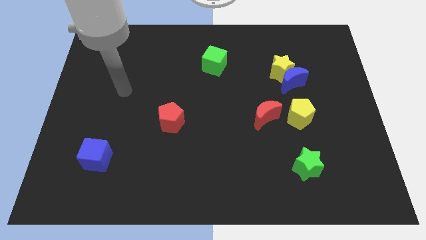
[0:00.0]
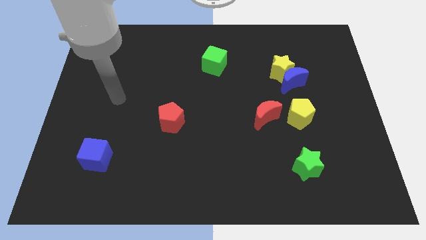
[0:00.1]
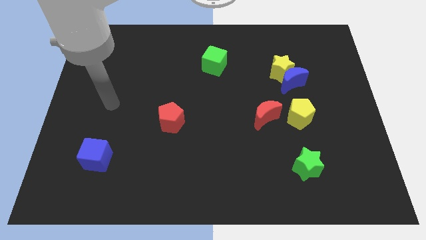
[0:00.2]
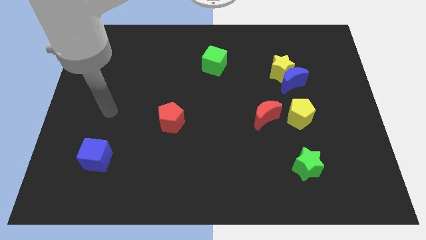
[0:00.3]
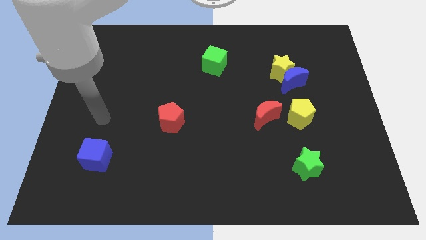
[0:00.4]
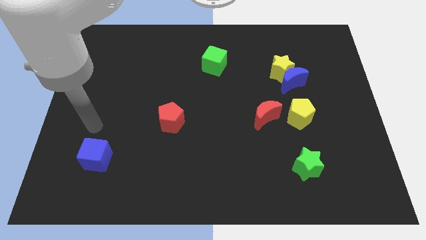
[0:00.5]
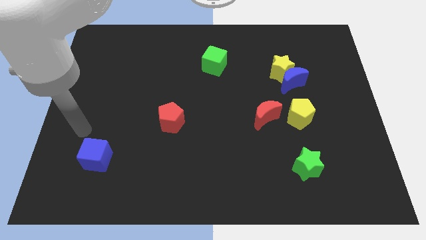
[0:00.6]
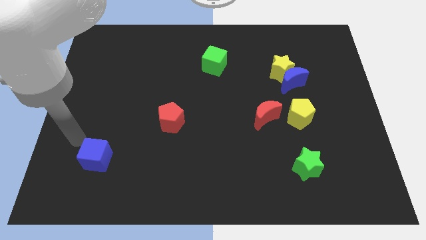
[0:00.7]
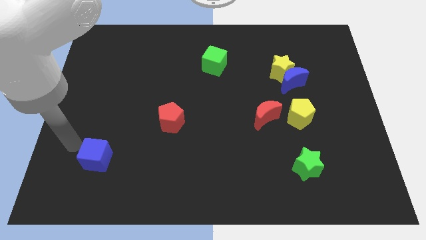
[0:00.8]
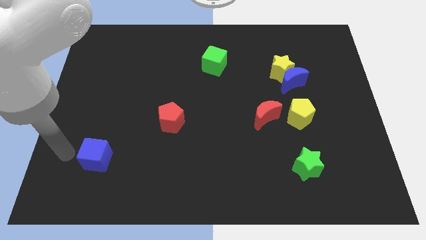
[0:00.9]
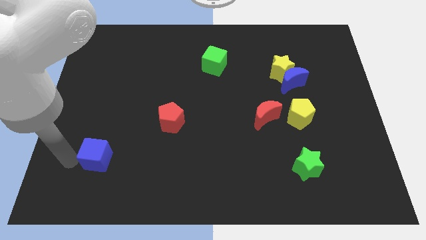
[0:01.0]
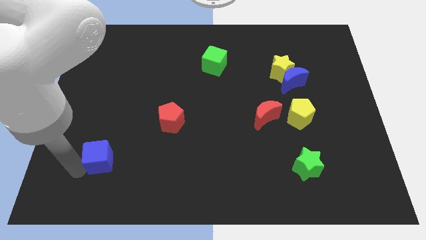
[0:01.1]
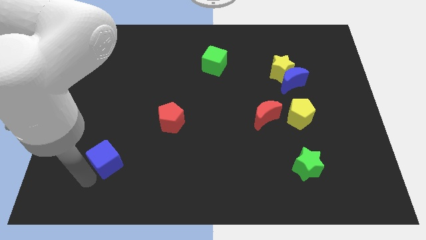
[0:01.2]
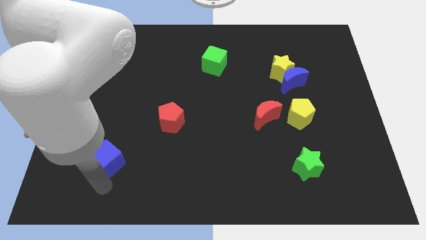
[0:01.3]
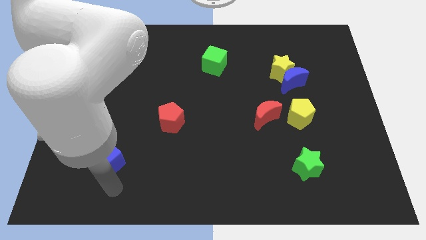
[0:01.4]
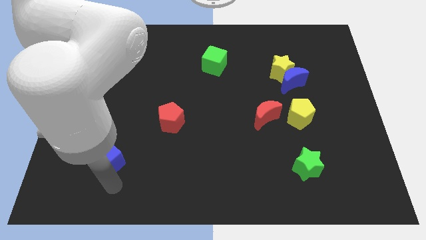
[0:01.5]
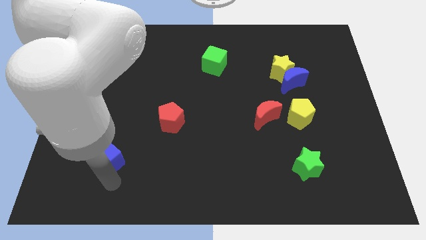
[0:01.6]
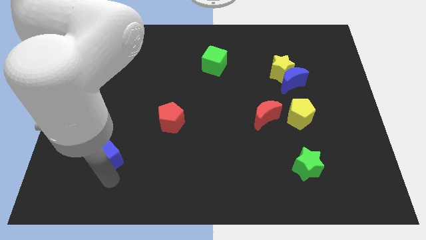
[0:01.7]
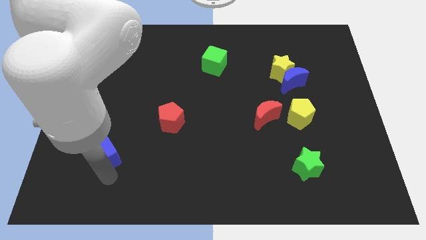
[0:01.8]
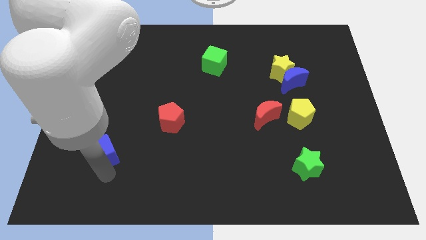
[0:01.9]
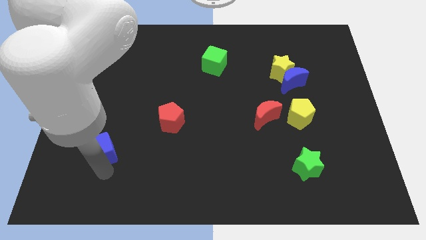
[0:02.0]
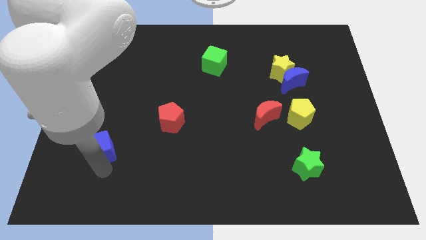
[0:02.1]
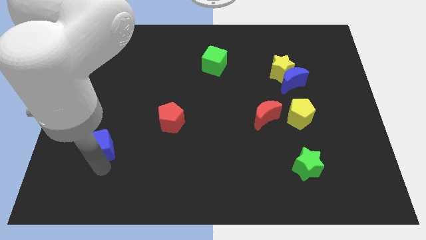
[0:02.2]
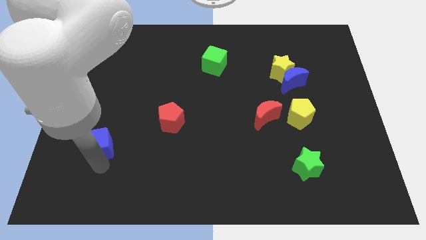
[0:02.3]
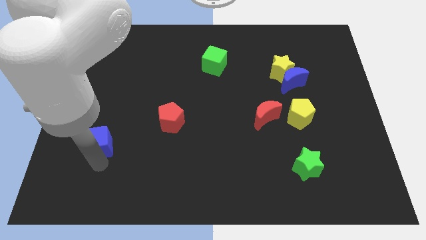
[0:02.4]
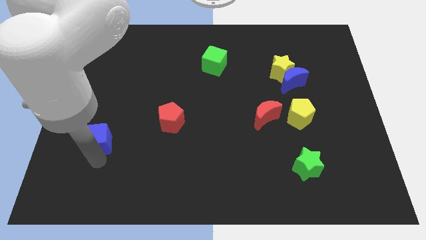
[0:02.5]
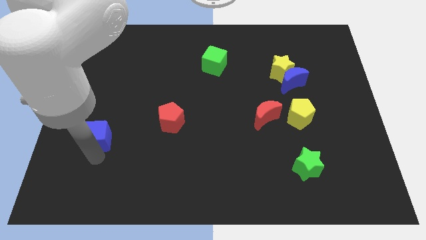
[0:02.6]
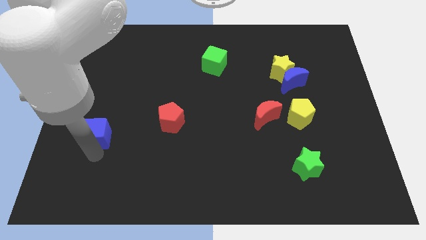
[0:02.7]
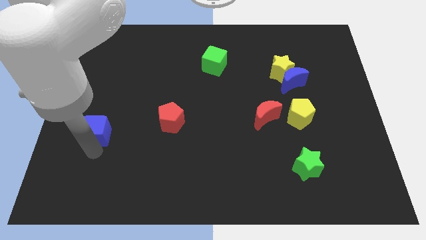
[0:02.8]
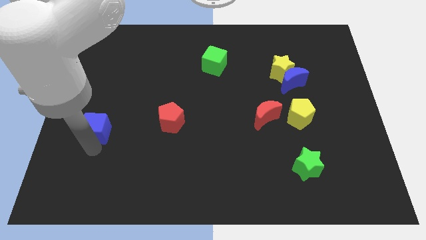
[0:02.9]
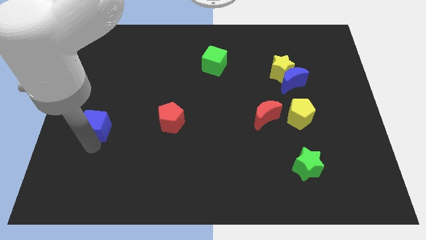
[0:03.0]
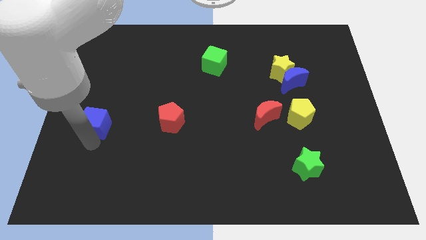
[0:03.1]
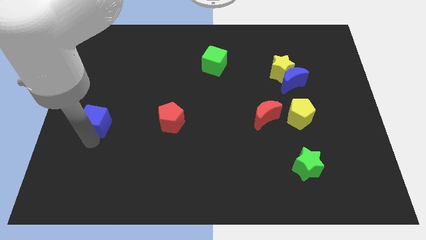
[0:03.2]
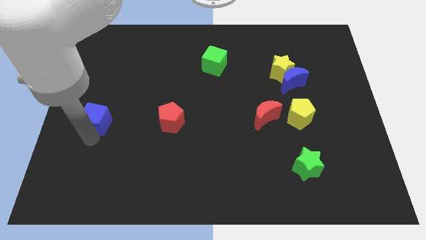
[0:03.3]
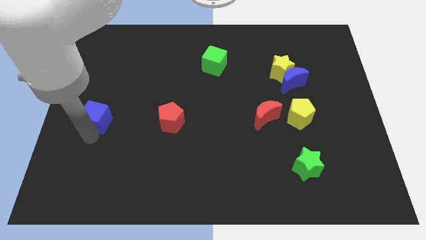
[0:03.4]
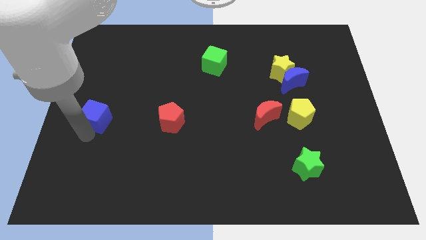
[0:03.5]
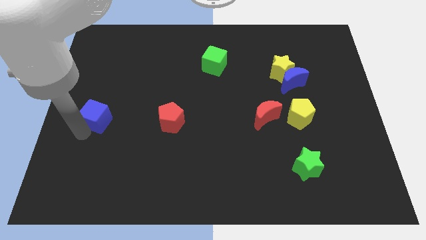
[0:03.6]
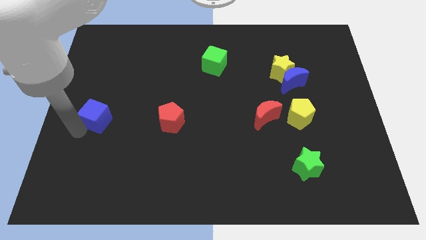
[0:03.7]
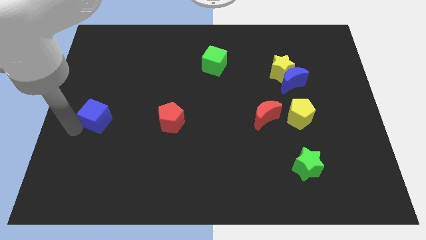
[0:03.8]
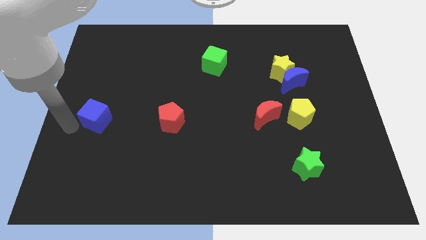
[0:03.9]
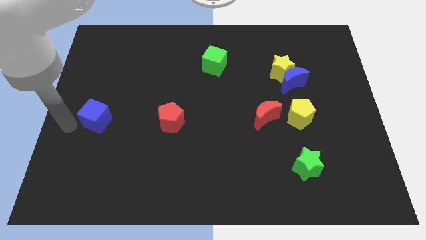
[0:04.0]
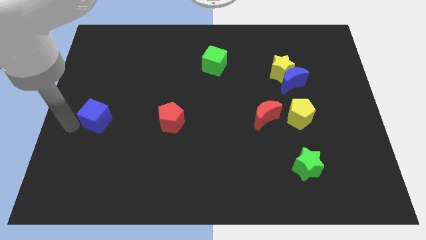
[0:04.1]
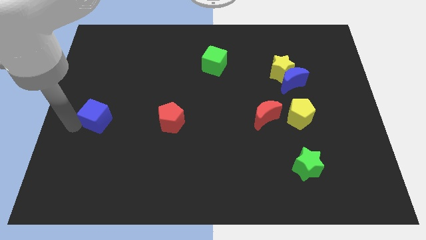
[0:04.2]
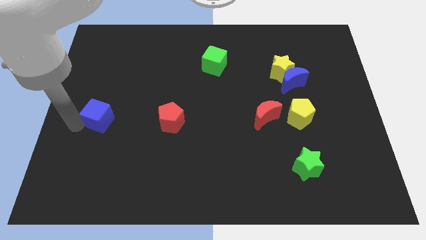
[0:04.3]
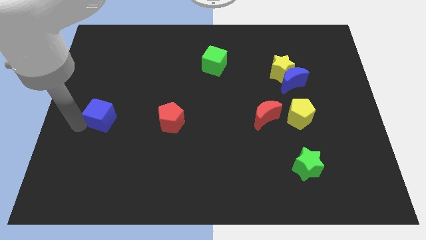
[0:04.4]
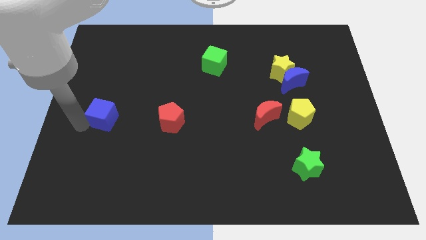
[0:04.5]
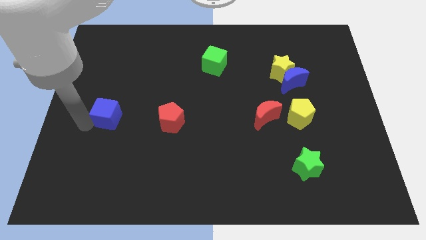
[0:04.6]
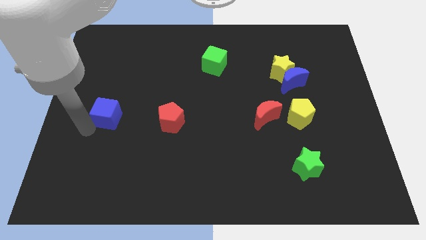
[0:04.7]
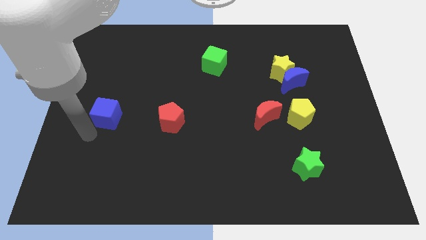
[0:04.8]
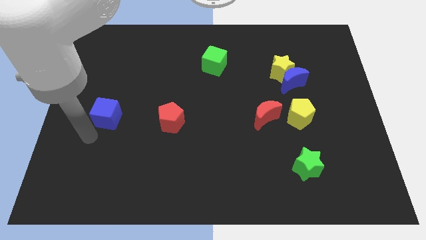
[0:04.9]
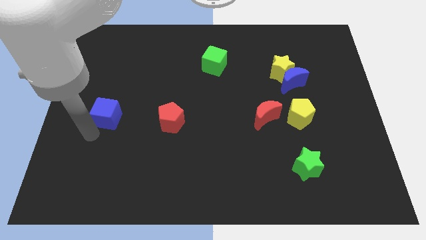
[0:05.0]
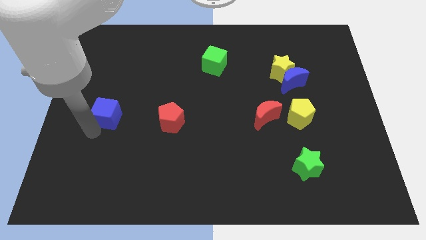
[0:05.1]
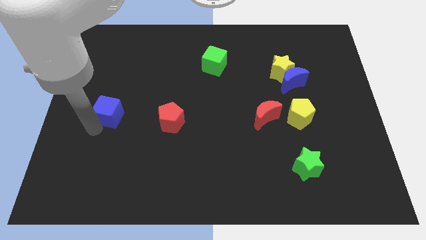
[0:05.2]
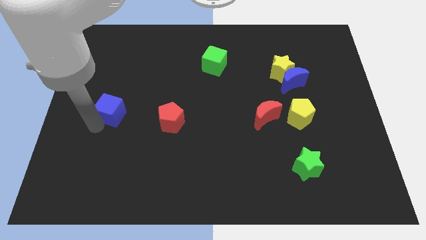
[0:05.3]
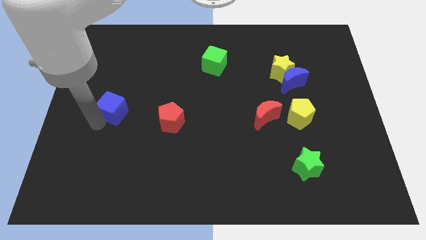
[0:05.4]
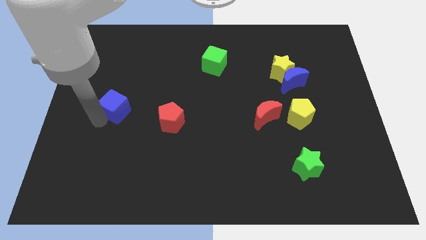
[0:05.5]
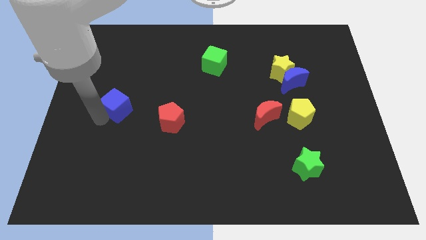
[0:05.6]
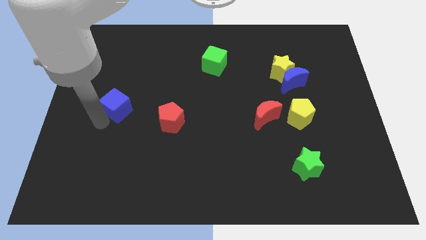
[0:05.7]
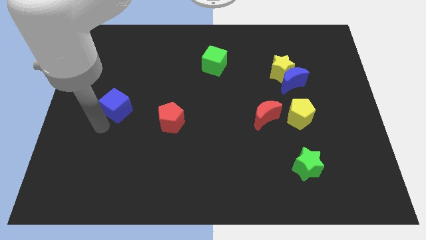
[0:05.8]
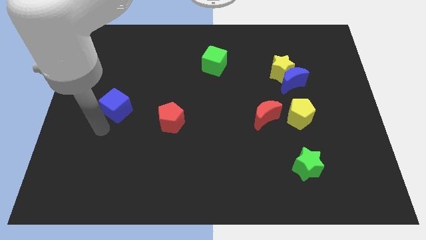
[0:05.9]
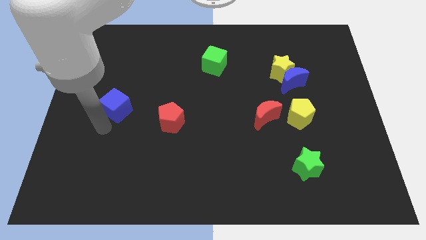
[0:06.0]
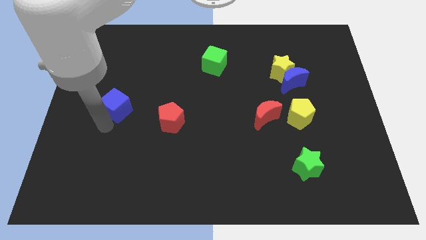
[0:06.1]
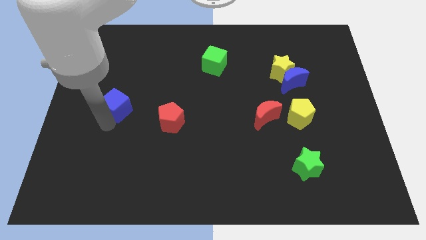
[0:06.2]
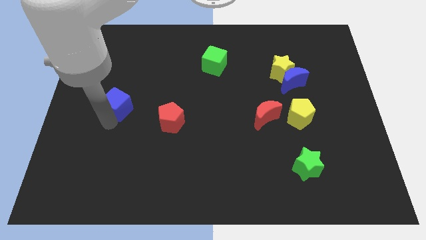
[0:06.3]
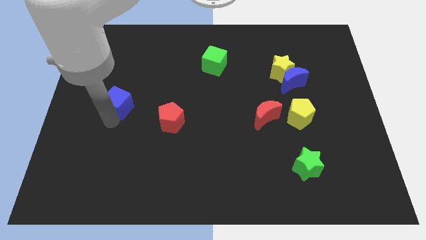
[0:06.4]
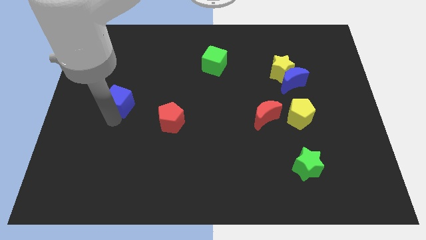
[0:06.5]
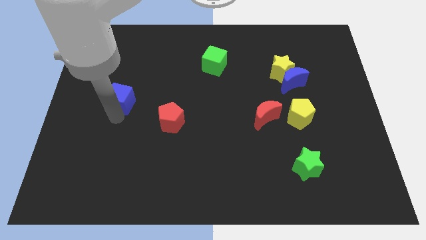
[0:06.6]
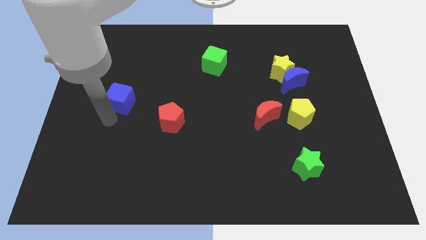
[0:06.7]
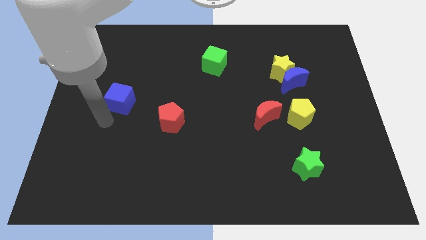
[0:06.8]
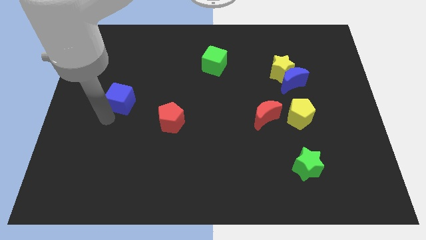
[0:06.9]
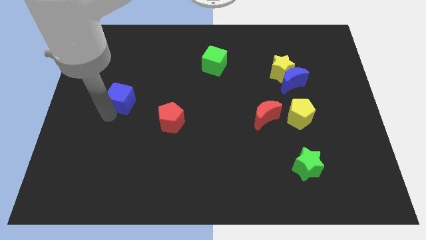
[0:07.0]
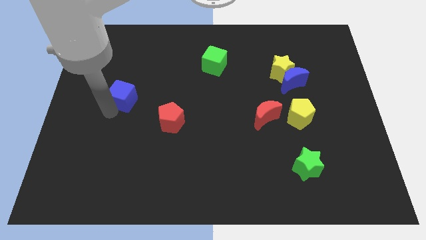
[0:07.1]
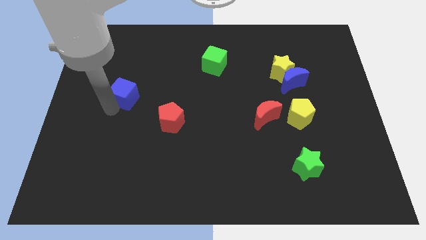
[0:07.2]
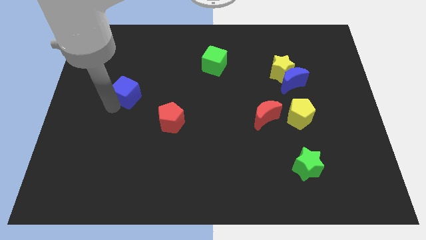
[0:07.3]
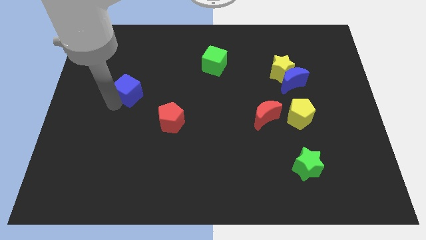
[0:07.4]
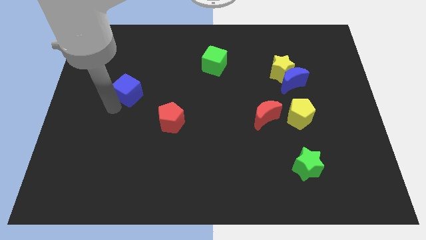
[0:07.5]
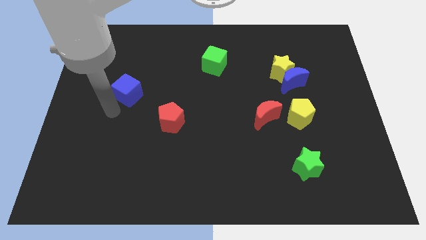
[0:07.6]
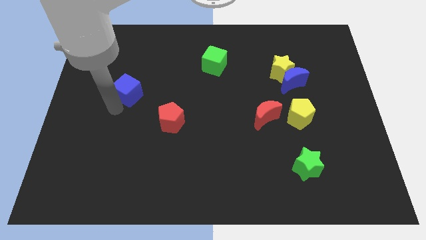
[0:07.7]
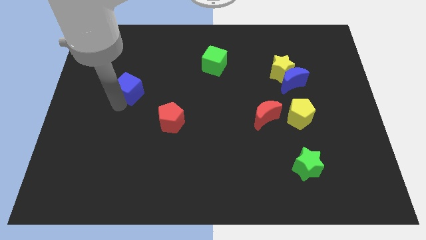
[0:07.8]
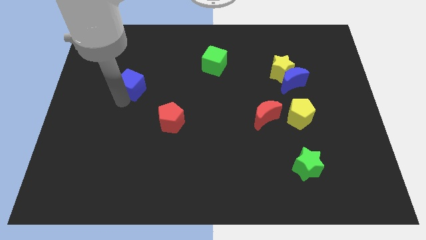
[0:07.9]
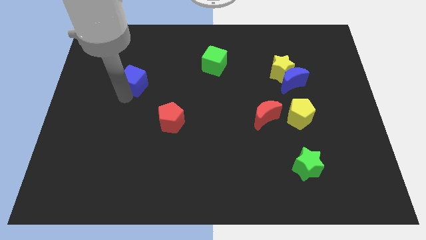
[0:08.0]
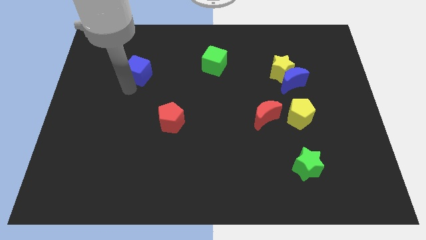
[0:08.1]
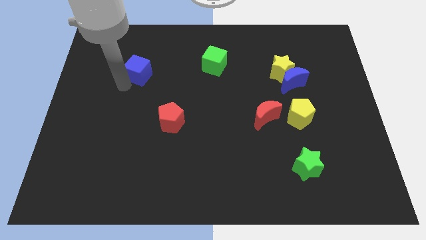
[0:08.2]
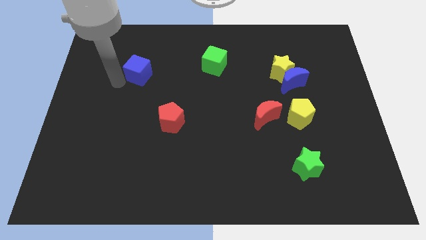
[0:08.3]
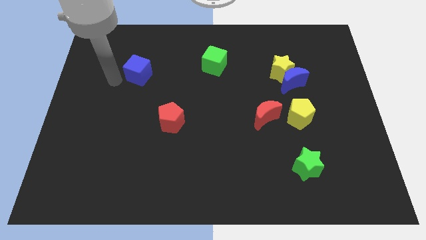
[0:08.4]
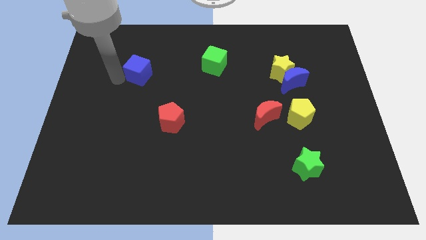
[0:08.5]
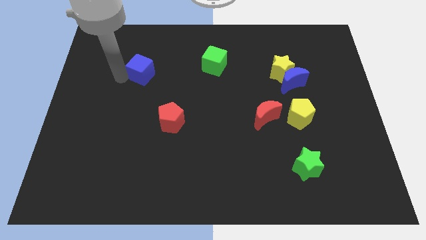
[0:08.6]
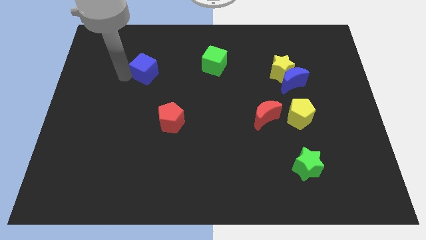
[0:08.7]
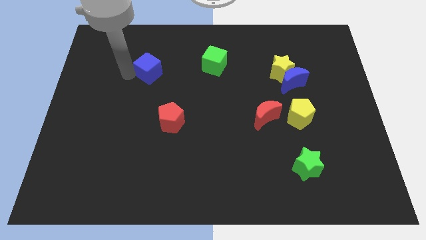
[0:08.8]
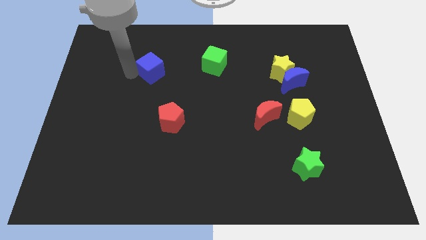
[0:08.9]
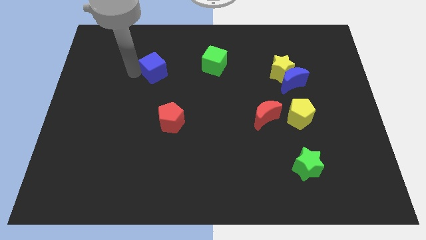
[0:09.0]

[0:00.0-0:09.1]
move the blue cube left of the green cube
